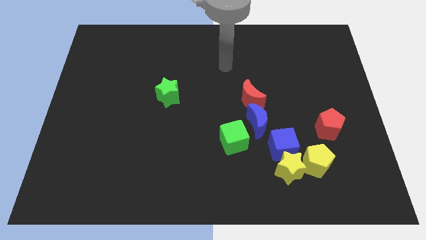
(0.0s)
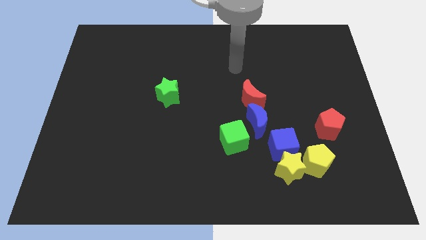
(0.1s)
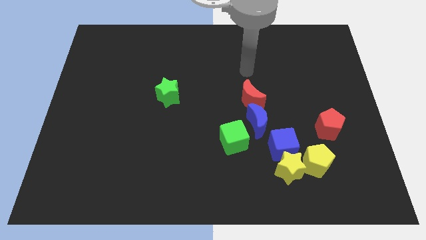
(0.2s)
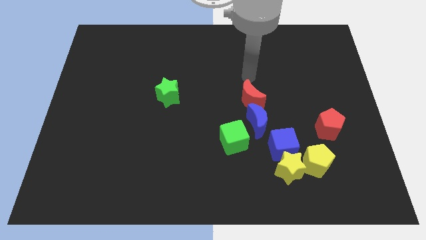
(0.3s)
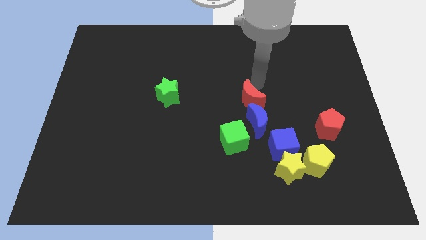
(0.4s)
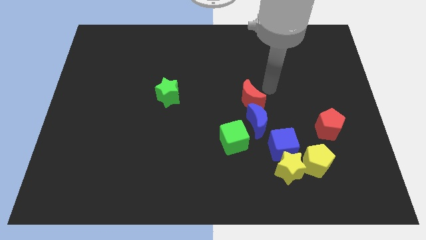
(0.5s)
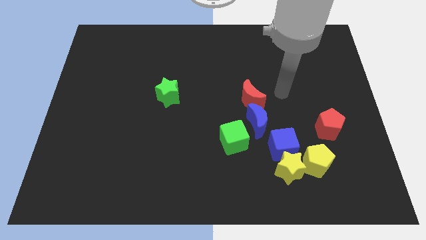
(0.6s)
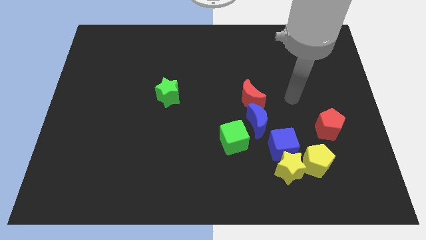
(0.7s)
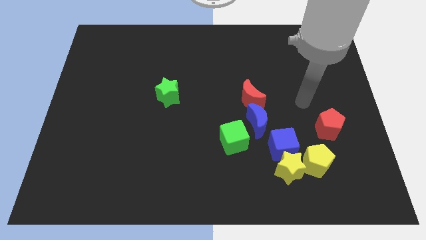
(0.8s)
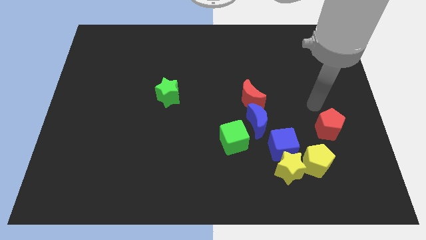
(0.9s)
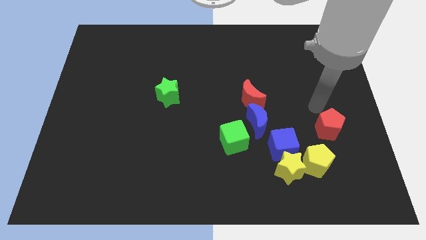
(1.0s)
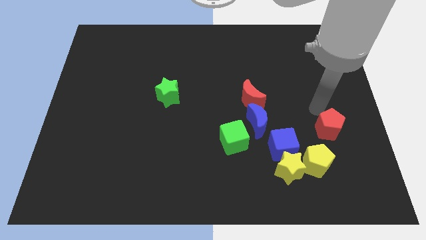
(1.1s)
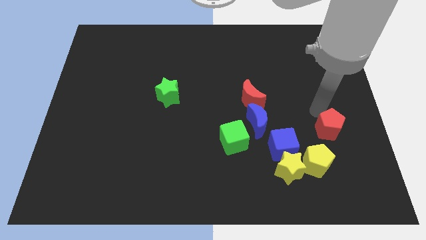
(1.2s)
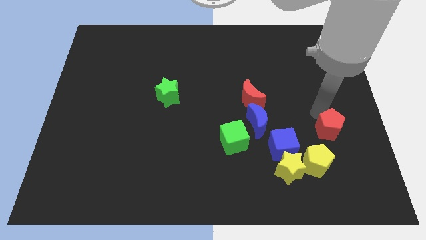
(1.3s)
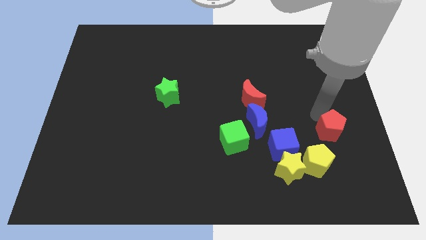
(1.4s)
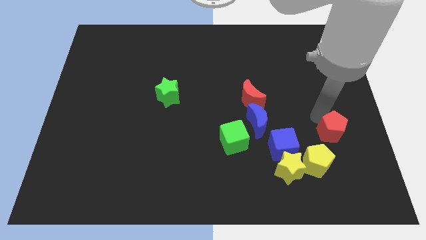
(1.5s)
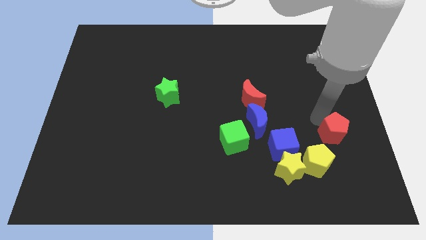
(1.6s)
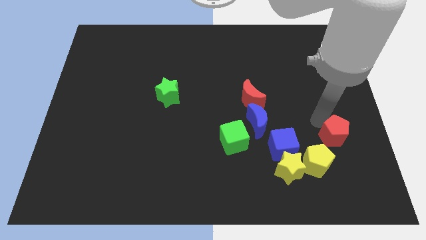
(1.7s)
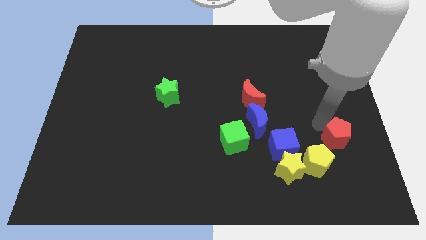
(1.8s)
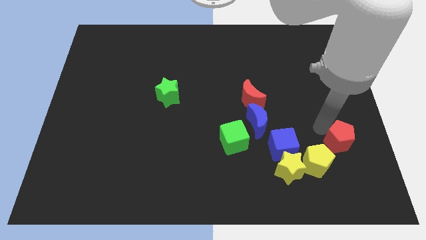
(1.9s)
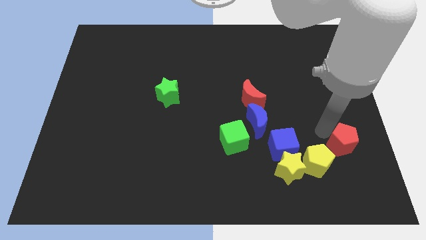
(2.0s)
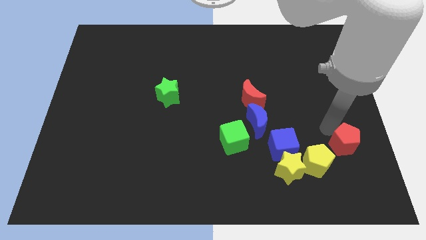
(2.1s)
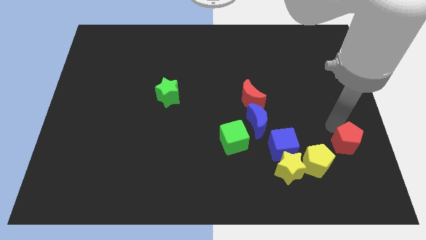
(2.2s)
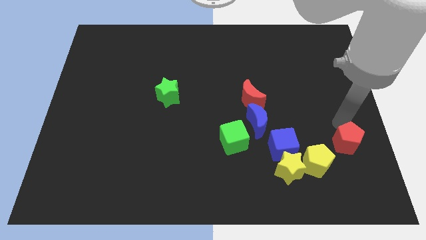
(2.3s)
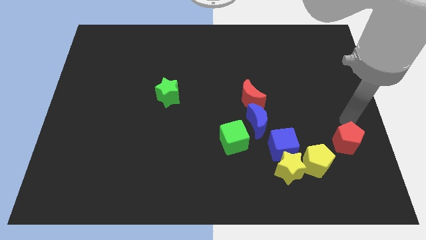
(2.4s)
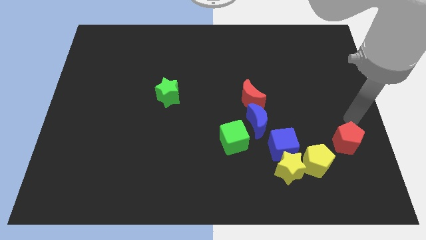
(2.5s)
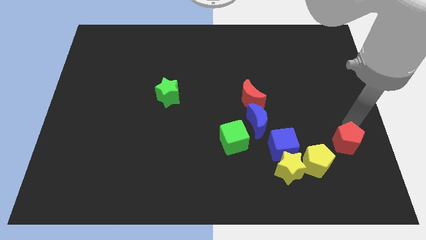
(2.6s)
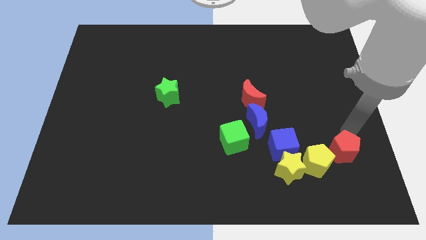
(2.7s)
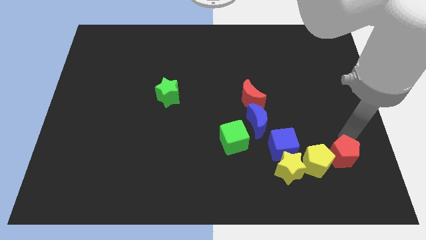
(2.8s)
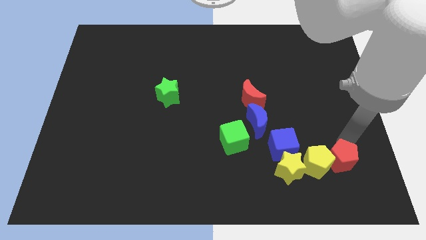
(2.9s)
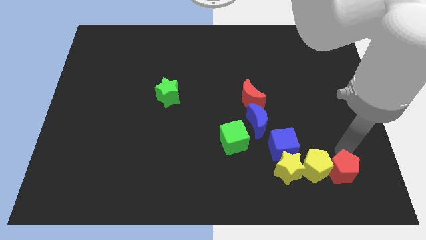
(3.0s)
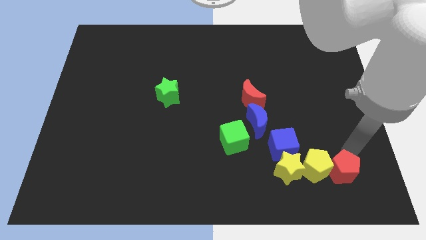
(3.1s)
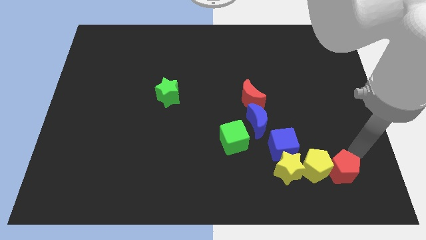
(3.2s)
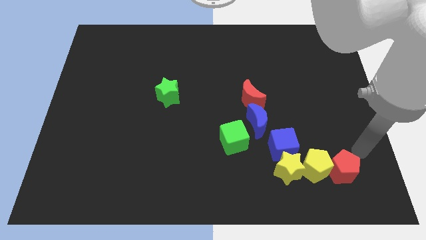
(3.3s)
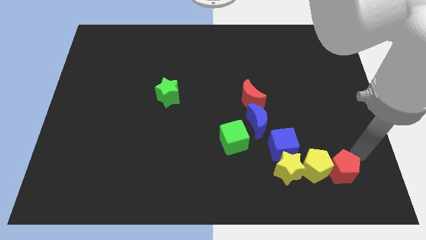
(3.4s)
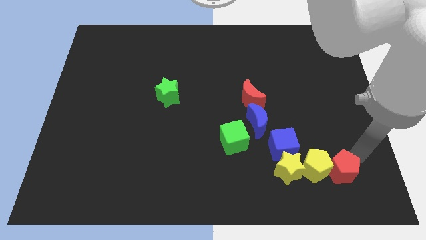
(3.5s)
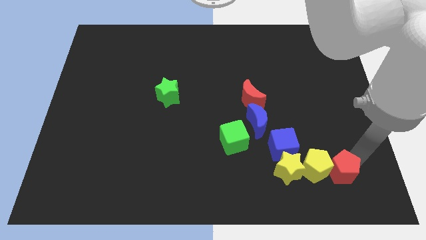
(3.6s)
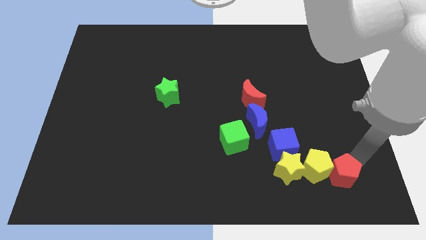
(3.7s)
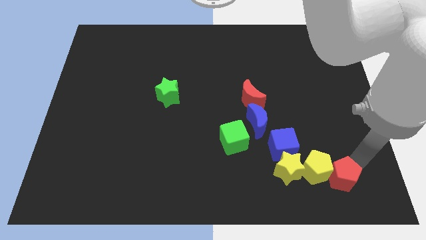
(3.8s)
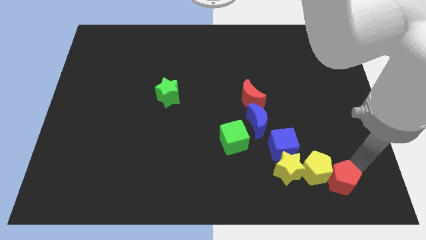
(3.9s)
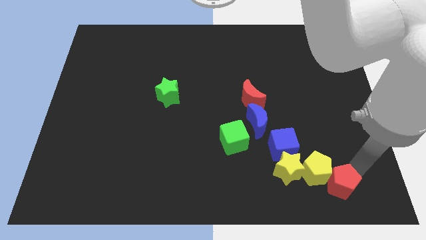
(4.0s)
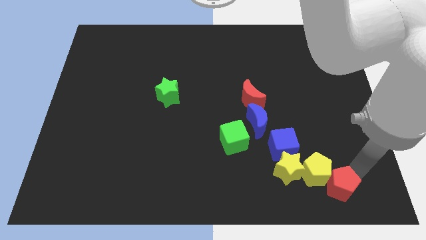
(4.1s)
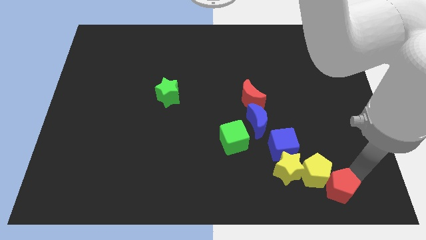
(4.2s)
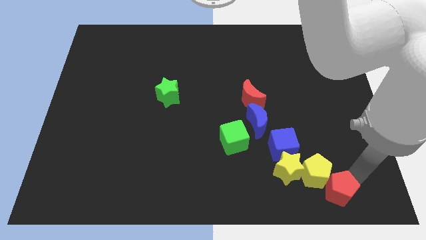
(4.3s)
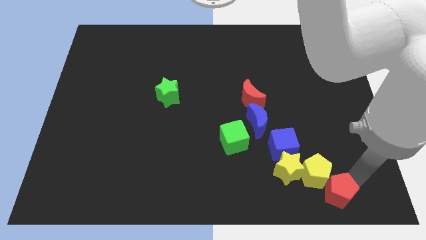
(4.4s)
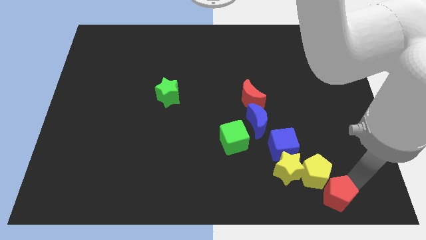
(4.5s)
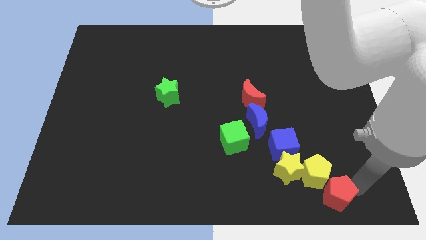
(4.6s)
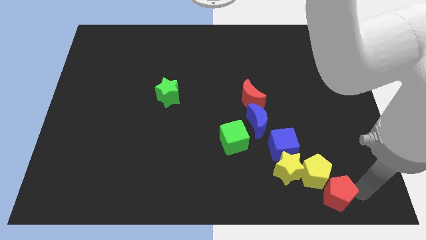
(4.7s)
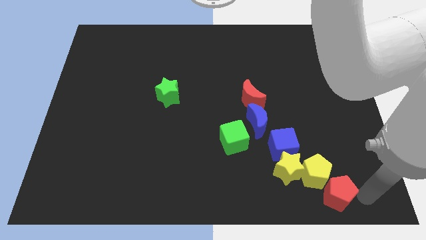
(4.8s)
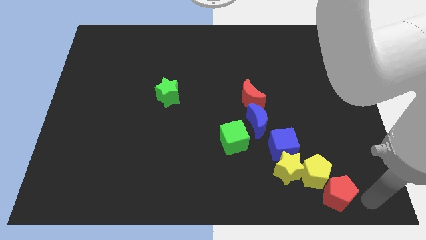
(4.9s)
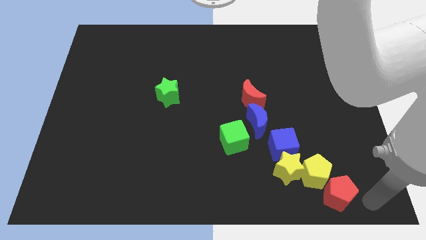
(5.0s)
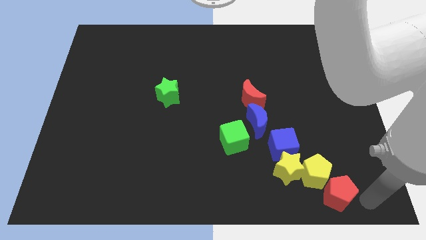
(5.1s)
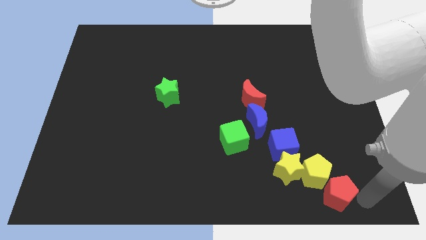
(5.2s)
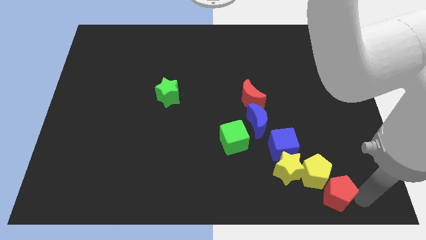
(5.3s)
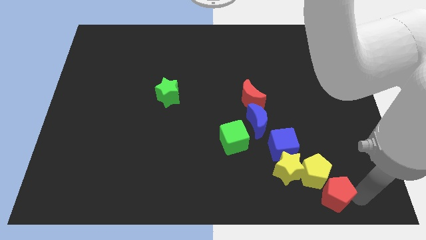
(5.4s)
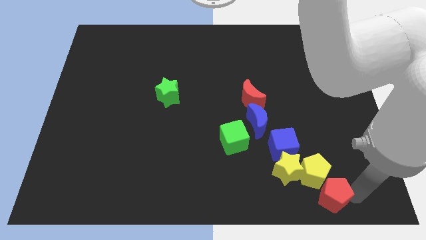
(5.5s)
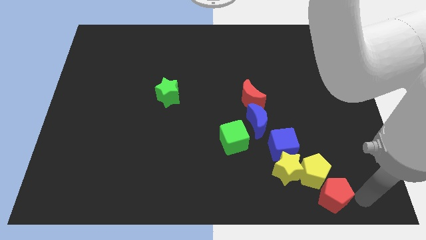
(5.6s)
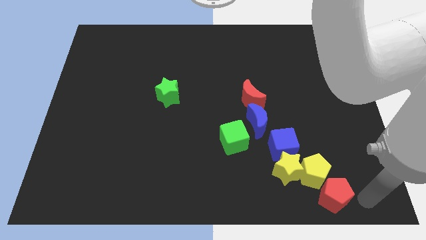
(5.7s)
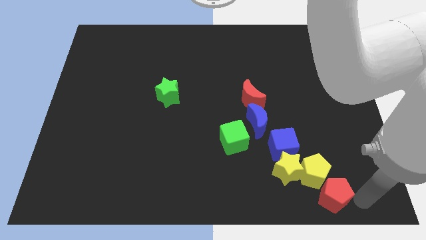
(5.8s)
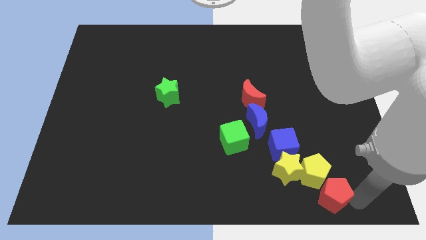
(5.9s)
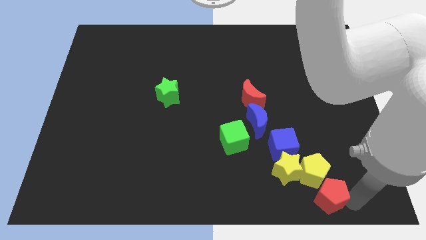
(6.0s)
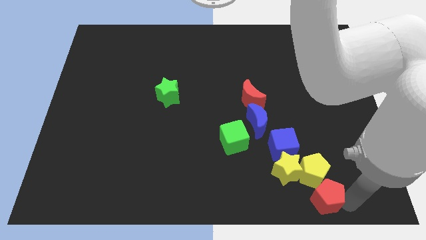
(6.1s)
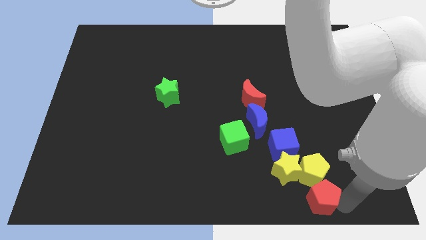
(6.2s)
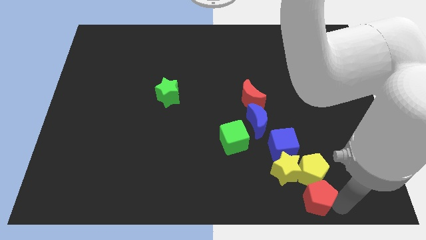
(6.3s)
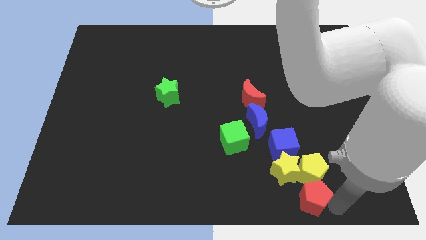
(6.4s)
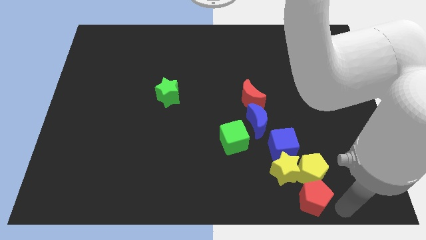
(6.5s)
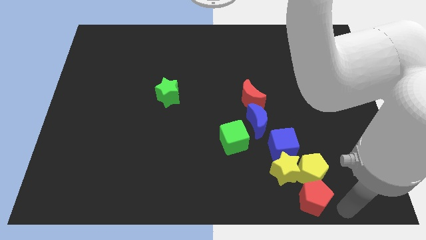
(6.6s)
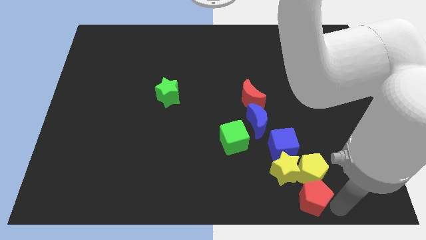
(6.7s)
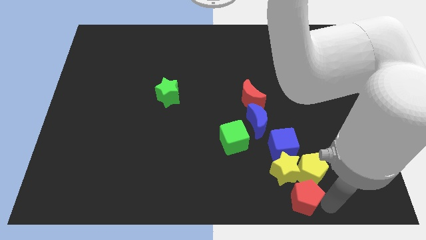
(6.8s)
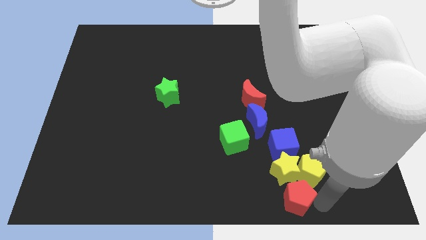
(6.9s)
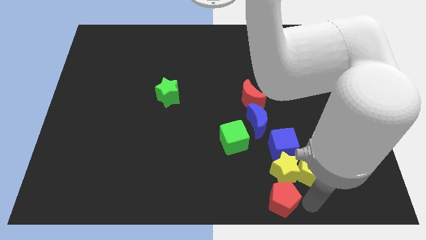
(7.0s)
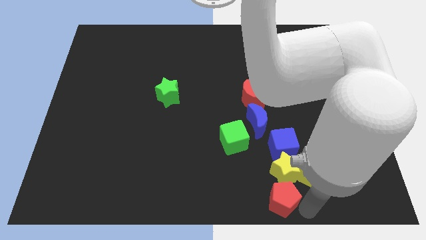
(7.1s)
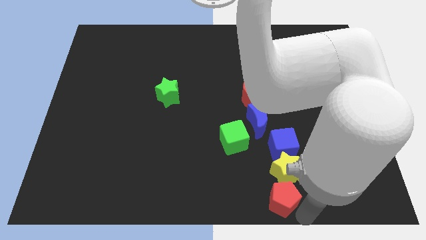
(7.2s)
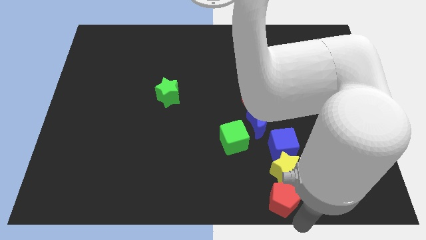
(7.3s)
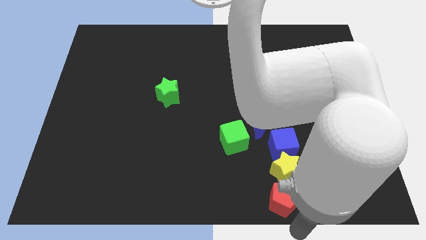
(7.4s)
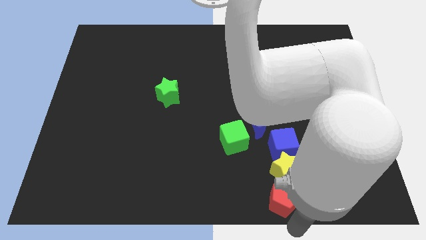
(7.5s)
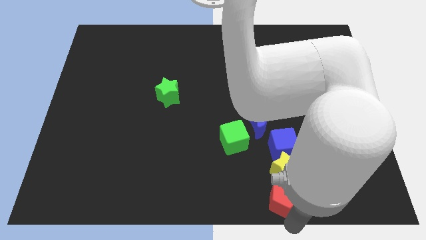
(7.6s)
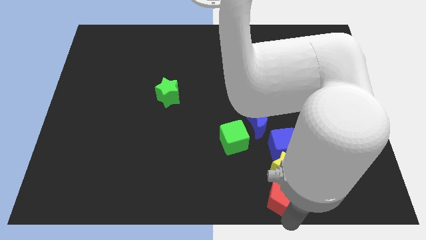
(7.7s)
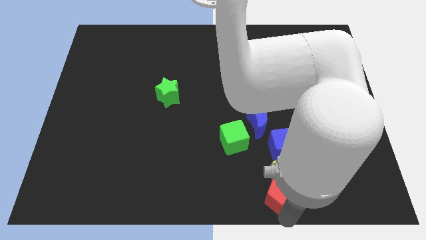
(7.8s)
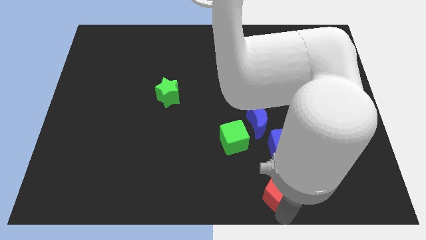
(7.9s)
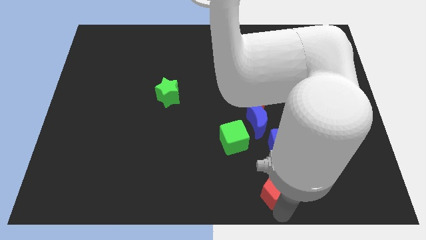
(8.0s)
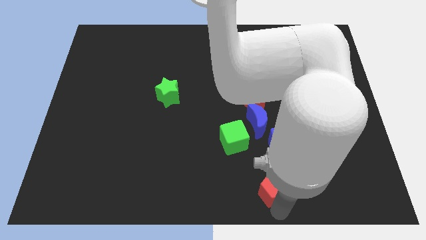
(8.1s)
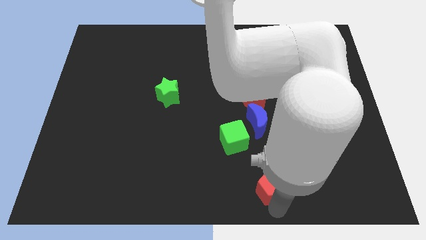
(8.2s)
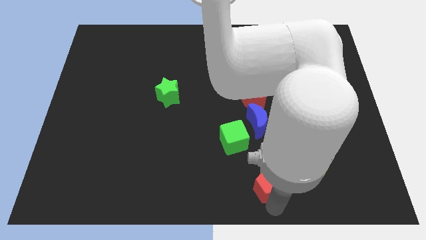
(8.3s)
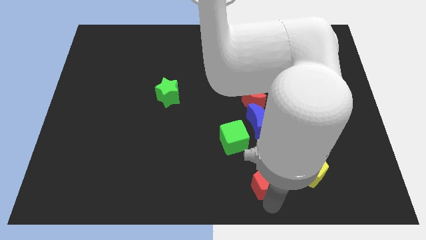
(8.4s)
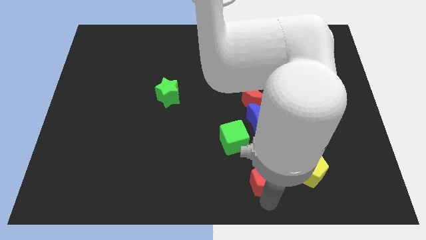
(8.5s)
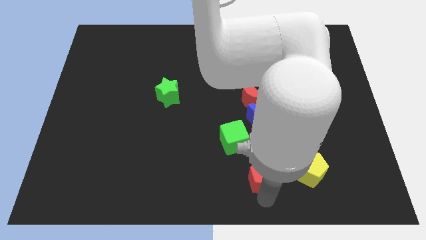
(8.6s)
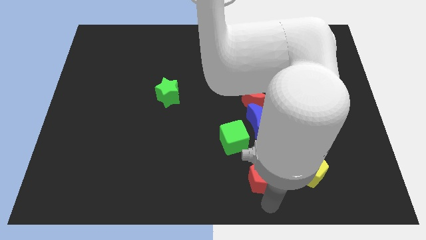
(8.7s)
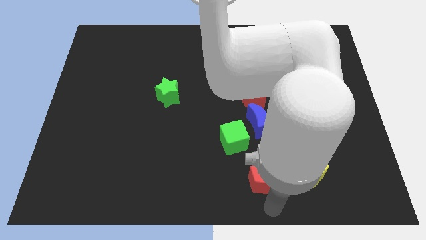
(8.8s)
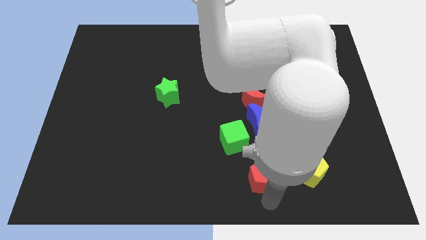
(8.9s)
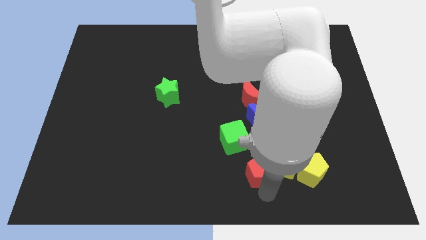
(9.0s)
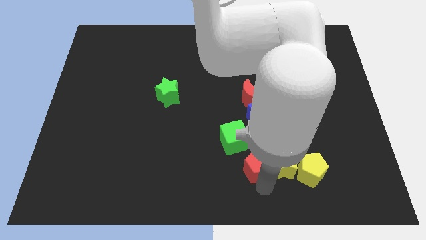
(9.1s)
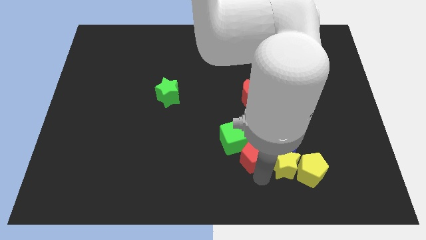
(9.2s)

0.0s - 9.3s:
move the red pentagon towards the green cube
